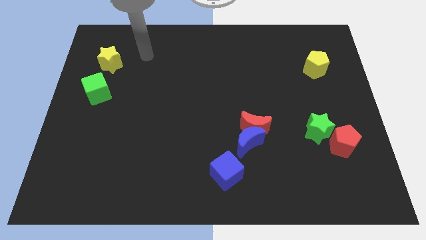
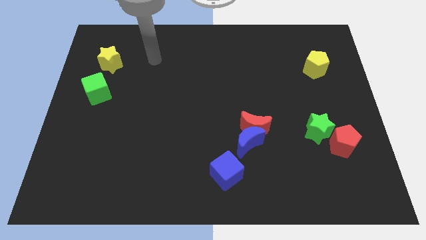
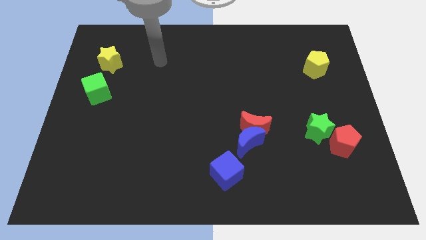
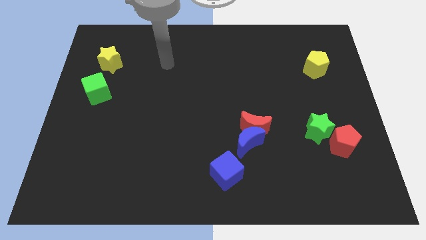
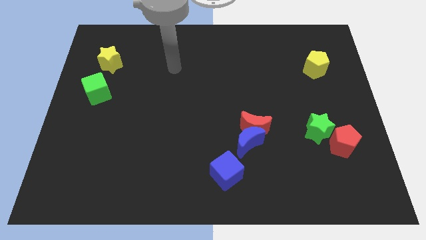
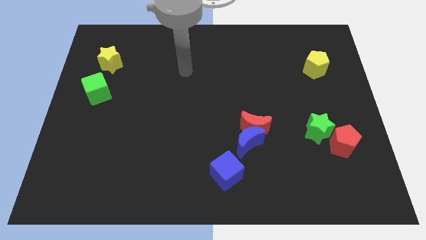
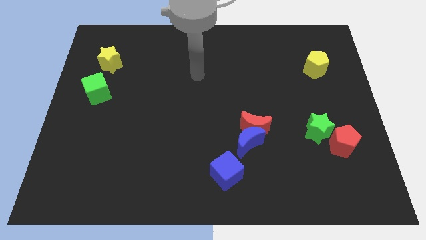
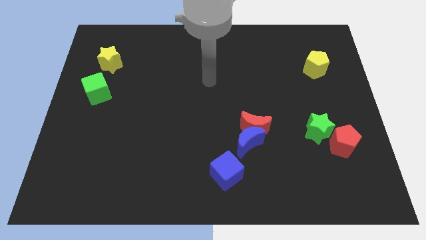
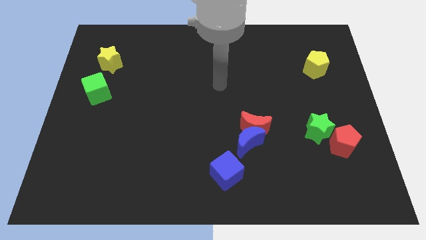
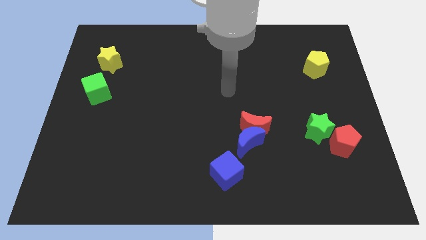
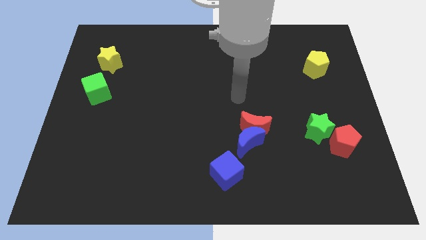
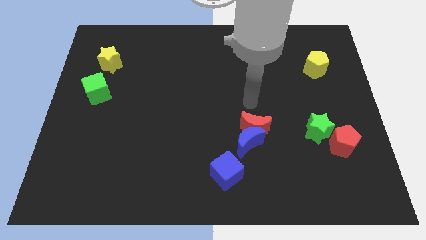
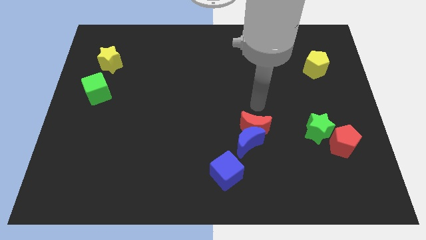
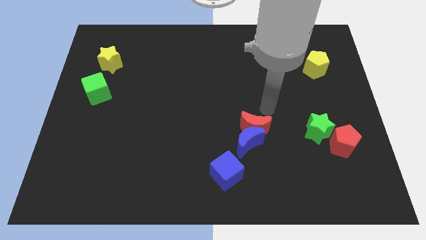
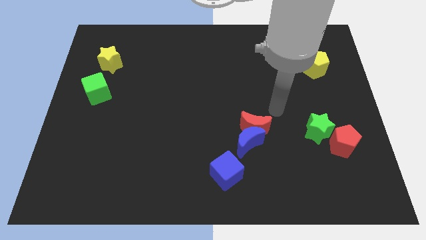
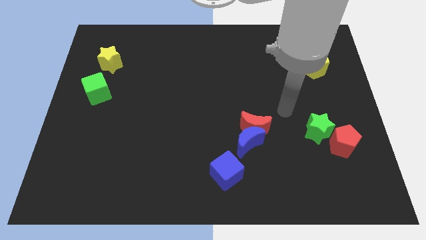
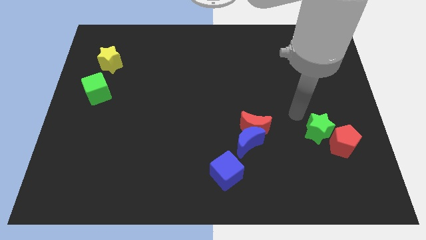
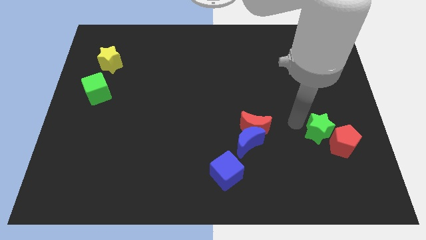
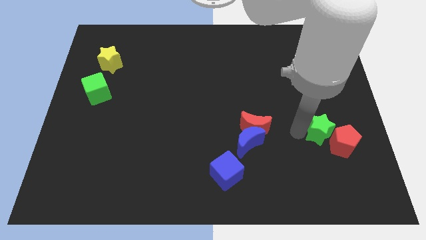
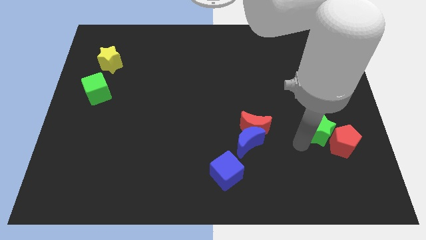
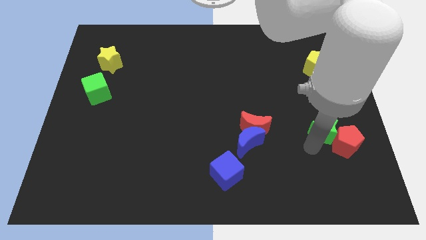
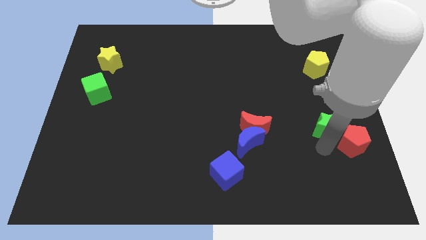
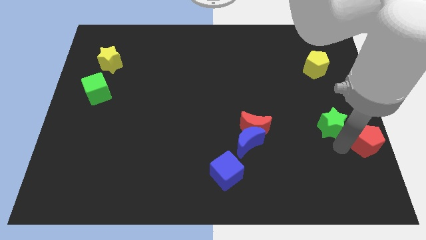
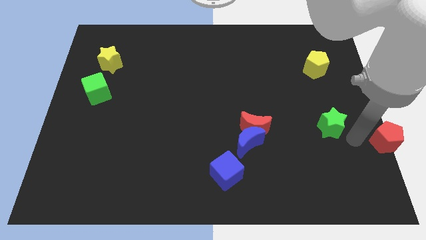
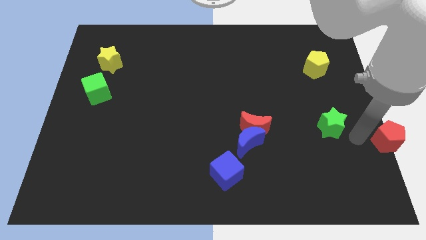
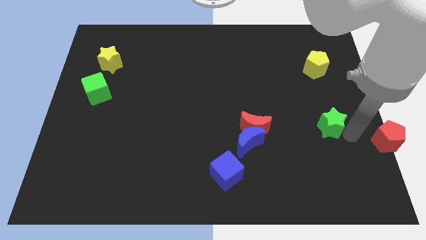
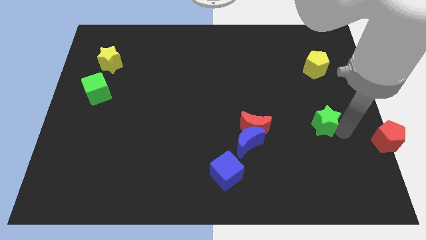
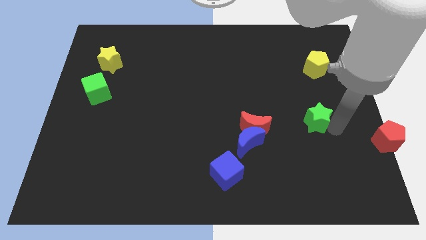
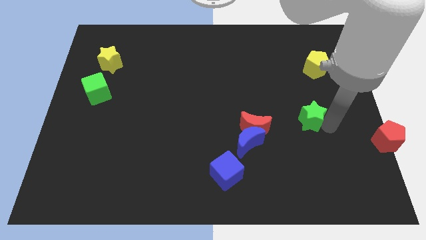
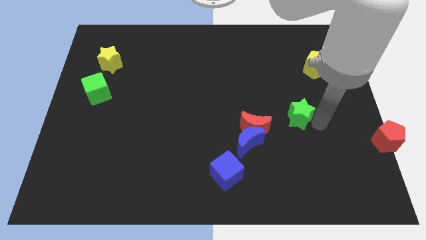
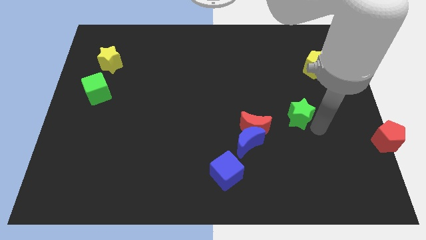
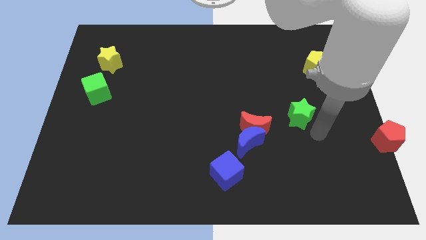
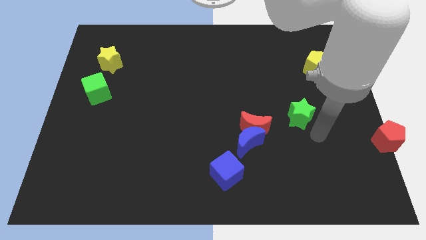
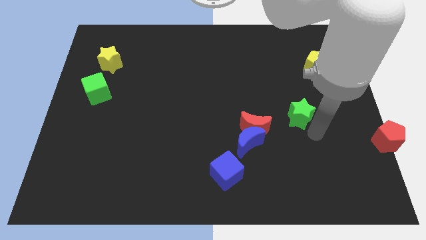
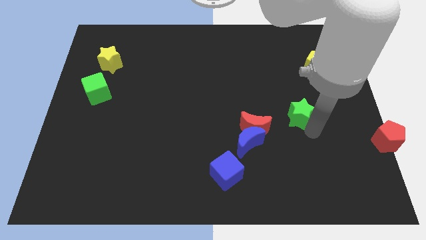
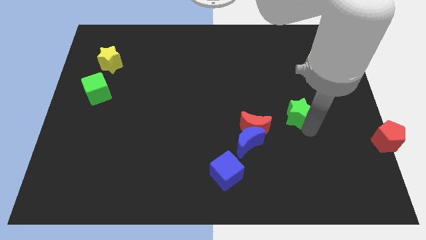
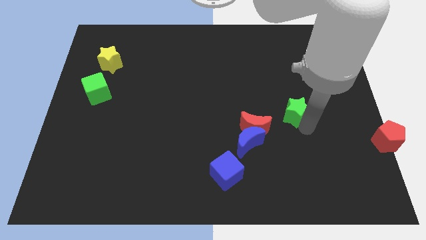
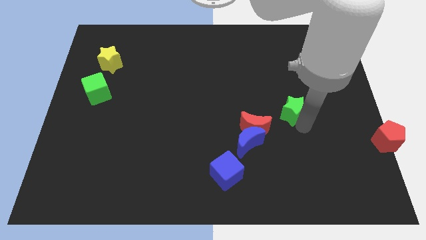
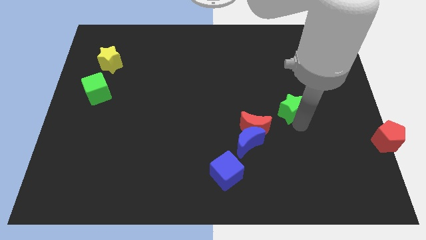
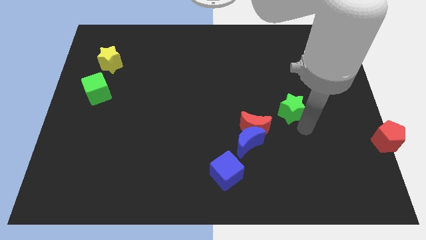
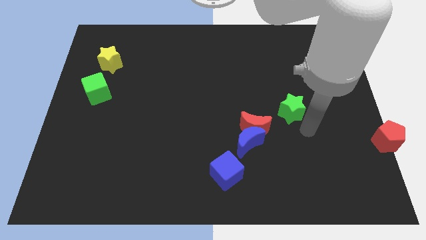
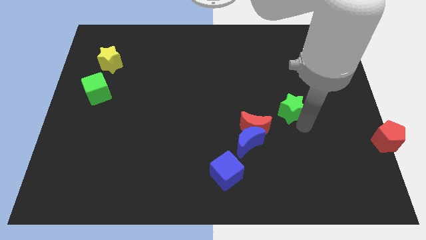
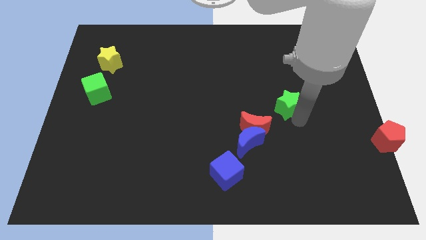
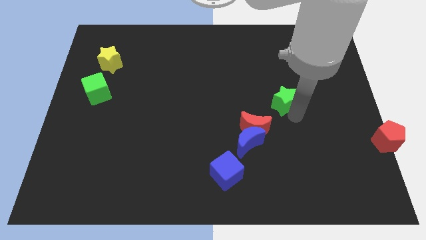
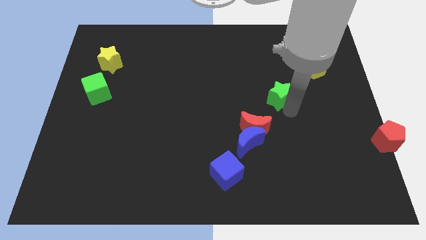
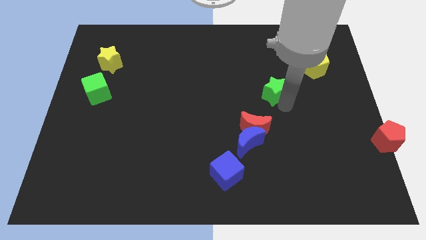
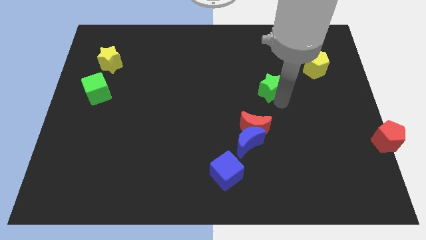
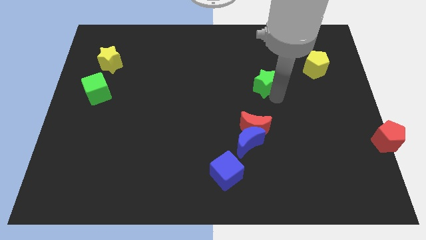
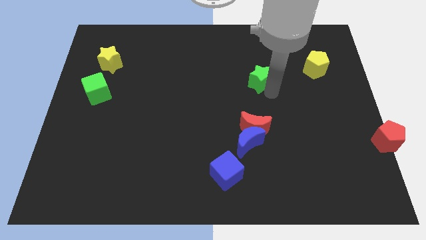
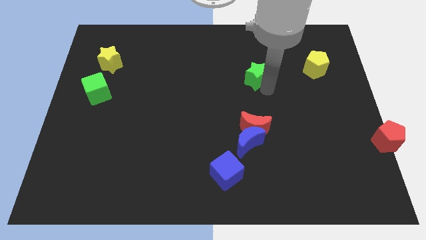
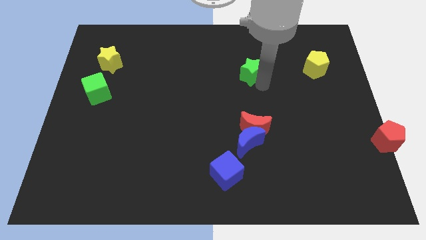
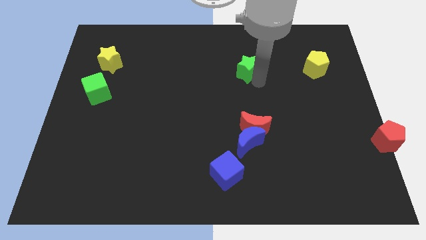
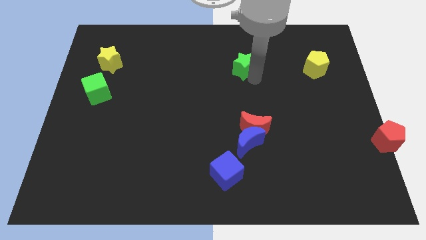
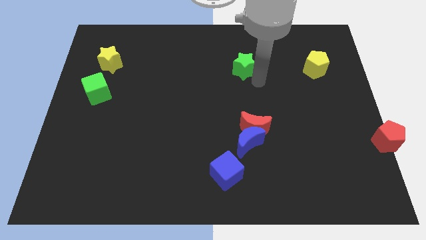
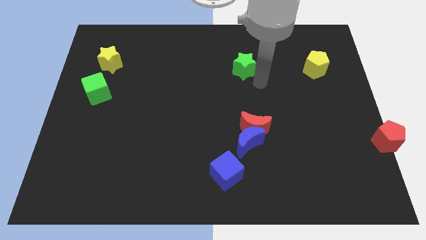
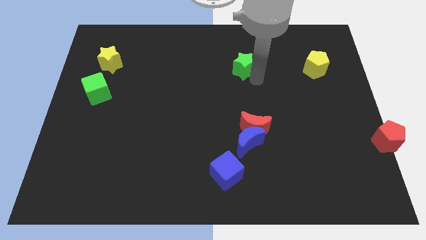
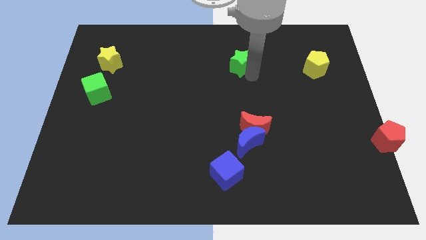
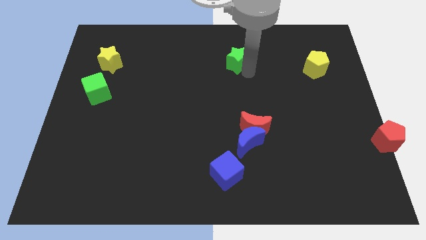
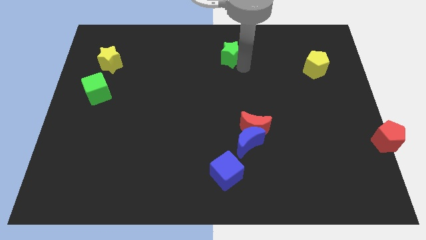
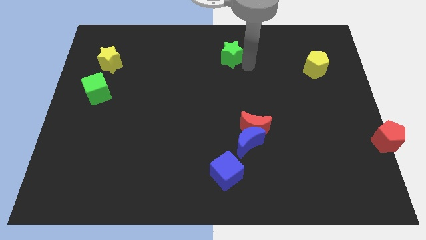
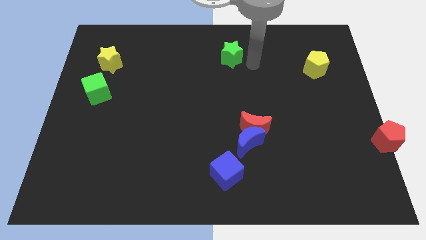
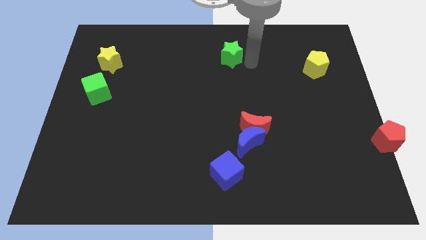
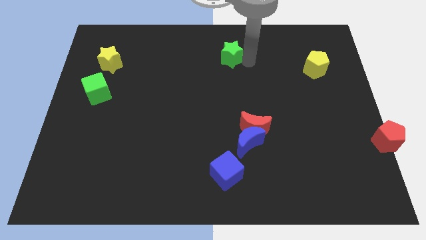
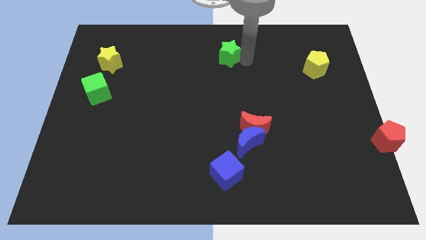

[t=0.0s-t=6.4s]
slide the green star to the top side
